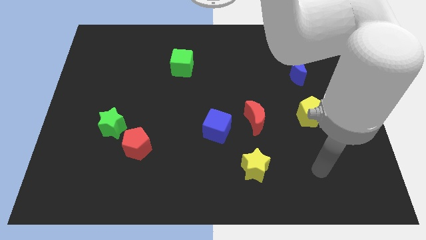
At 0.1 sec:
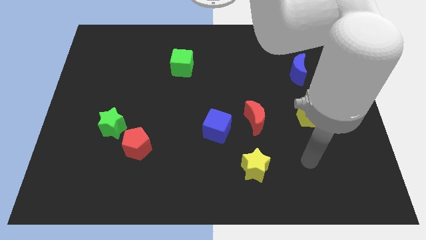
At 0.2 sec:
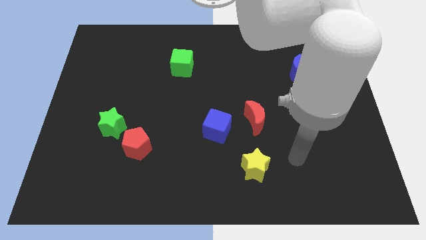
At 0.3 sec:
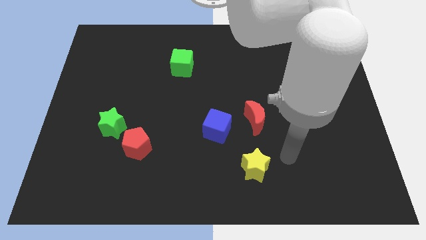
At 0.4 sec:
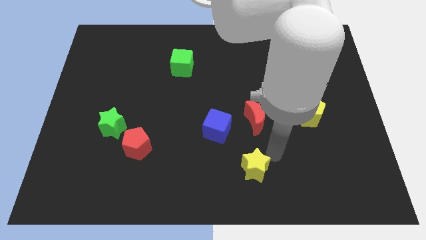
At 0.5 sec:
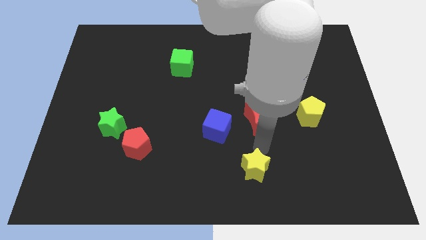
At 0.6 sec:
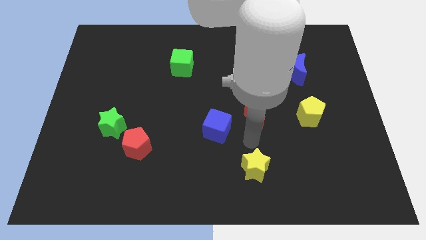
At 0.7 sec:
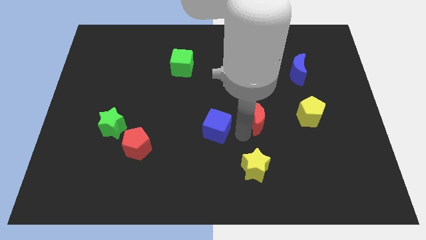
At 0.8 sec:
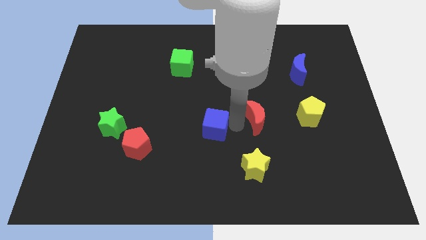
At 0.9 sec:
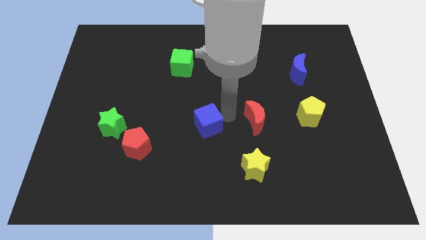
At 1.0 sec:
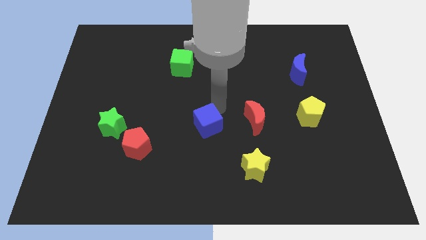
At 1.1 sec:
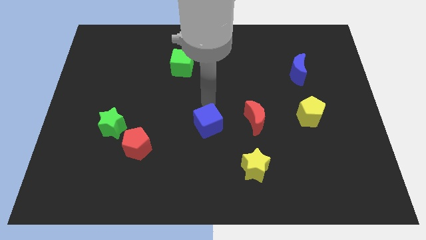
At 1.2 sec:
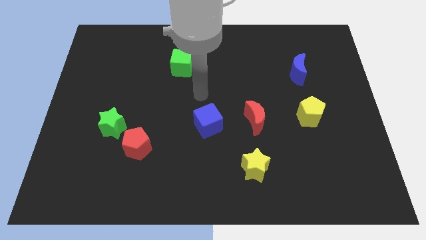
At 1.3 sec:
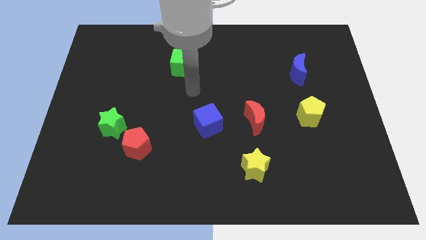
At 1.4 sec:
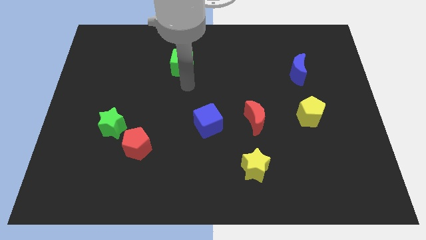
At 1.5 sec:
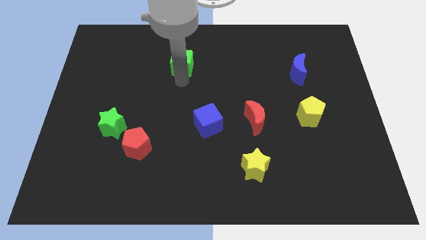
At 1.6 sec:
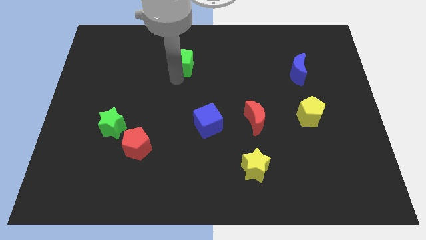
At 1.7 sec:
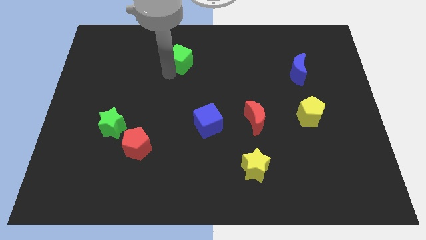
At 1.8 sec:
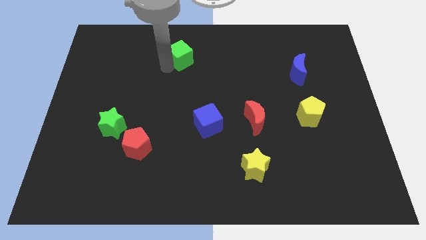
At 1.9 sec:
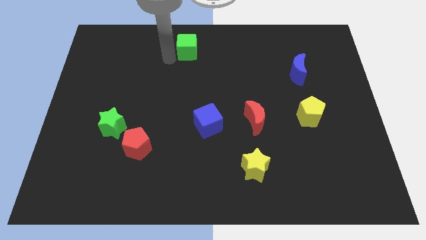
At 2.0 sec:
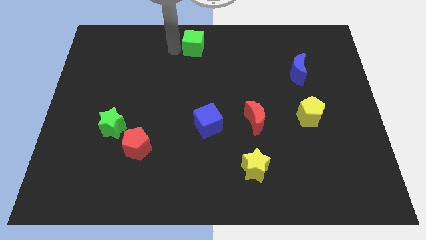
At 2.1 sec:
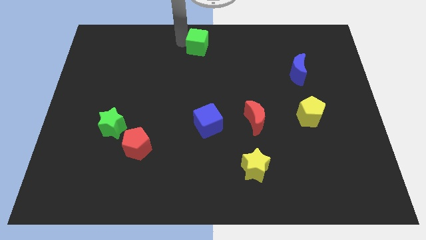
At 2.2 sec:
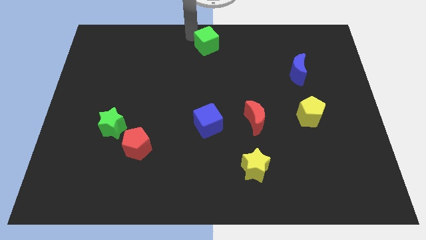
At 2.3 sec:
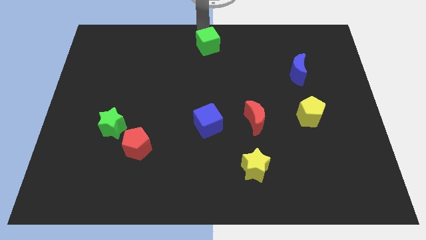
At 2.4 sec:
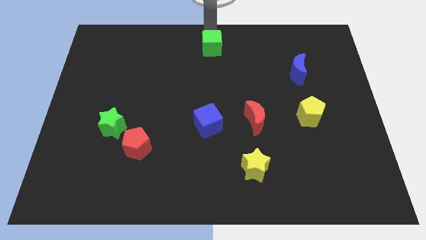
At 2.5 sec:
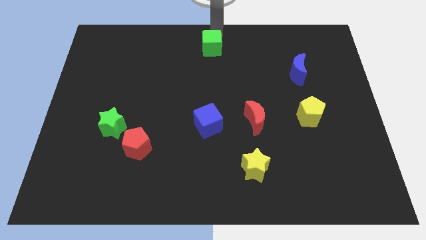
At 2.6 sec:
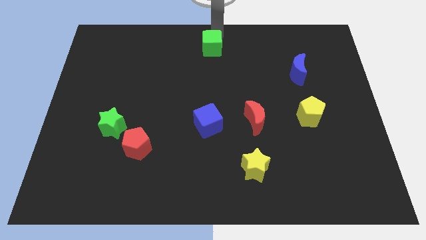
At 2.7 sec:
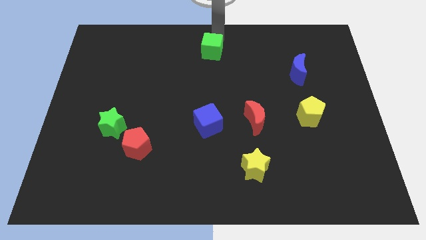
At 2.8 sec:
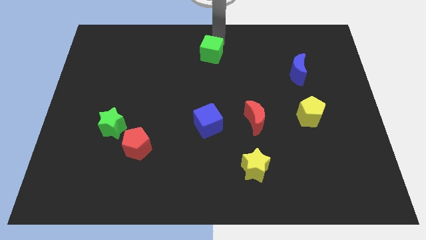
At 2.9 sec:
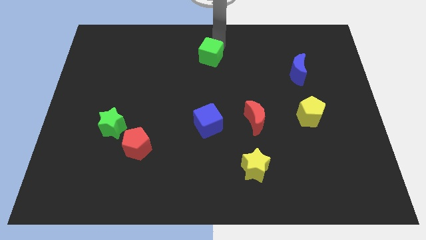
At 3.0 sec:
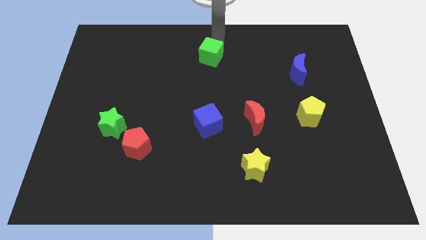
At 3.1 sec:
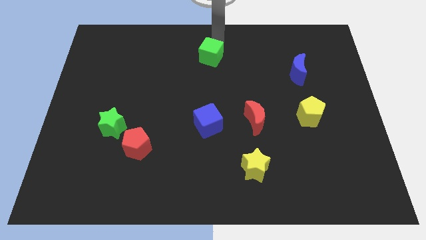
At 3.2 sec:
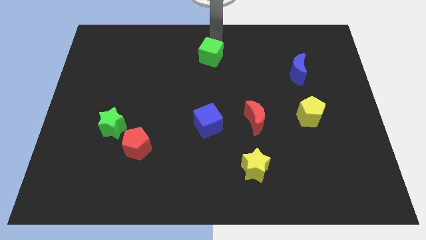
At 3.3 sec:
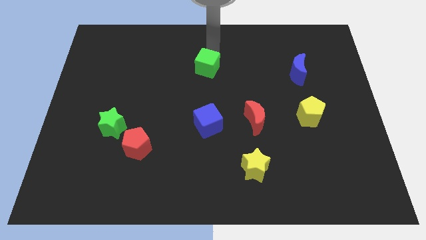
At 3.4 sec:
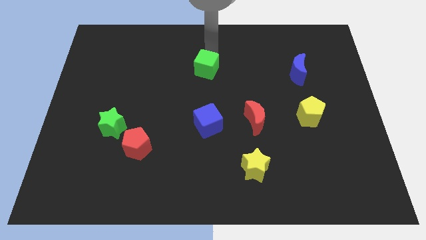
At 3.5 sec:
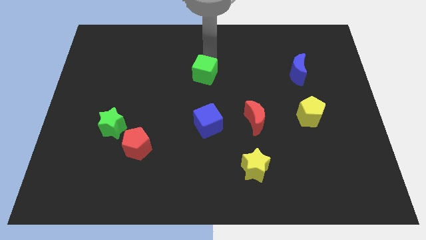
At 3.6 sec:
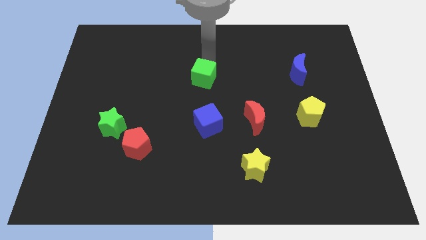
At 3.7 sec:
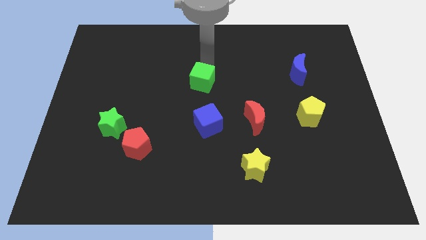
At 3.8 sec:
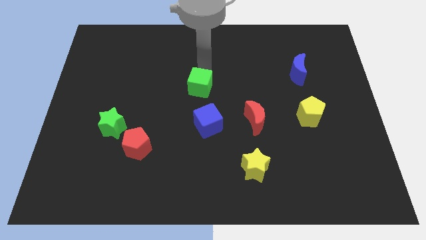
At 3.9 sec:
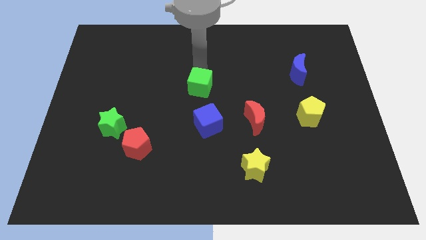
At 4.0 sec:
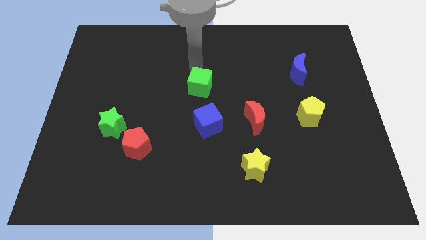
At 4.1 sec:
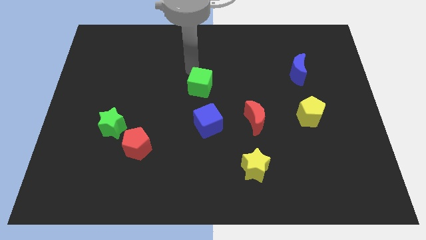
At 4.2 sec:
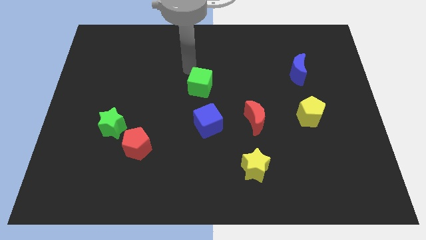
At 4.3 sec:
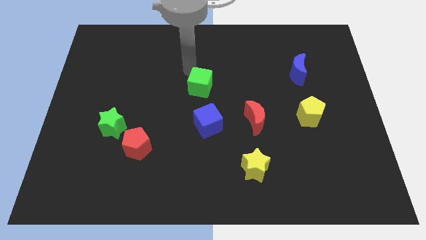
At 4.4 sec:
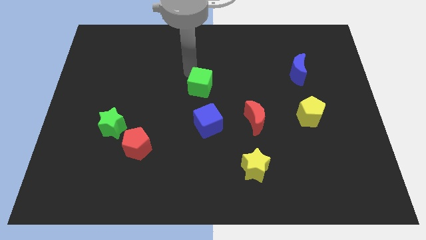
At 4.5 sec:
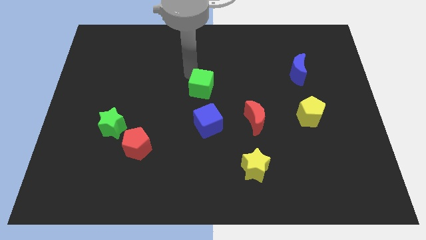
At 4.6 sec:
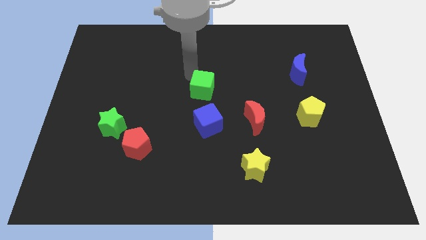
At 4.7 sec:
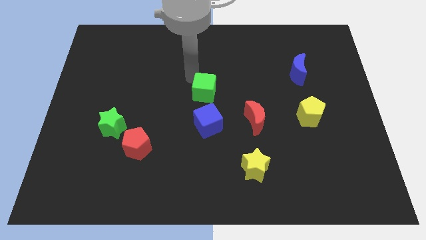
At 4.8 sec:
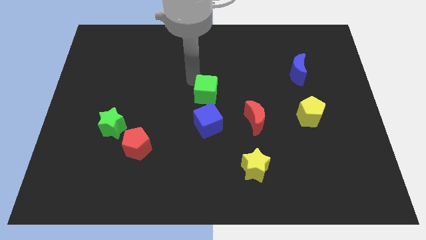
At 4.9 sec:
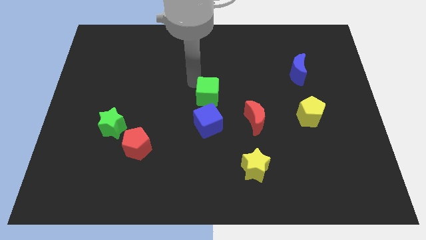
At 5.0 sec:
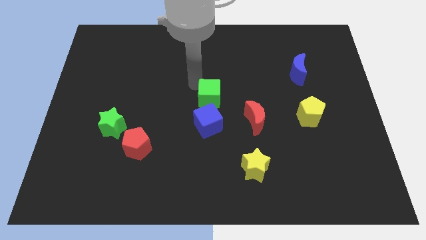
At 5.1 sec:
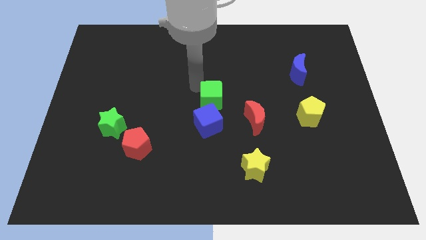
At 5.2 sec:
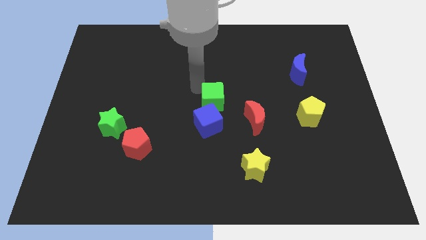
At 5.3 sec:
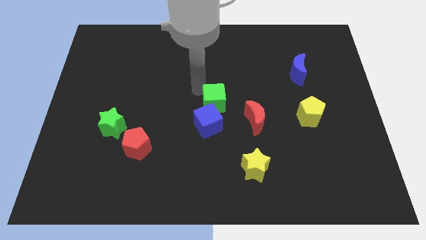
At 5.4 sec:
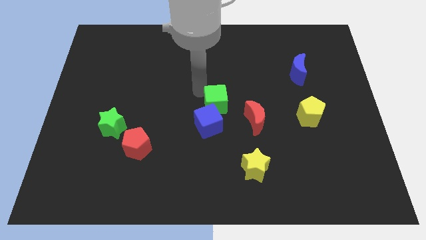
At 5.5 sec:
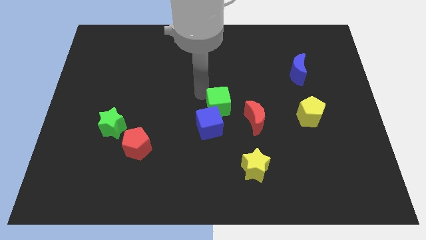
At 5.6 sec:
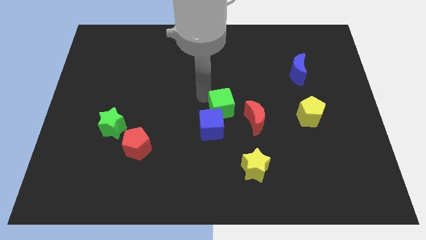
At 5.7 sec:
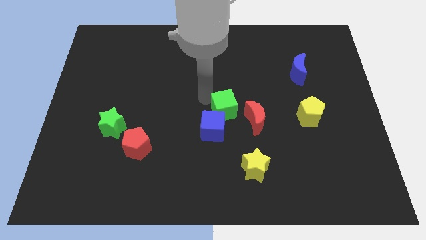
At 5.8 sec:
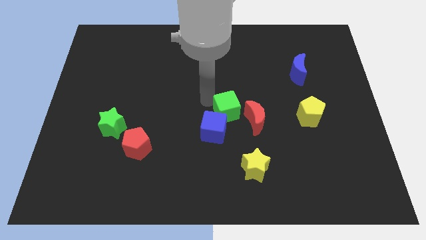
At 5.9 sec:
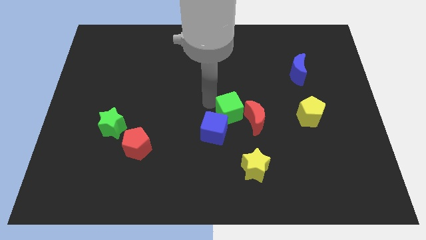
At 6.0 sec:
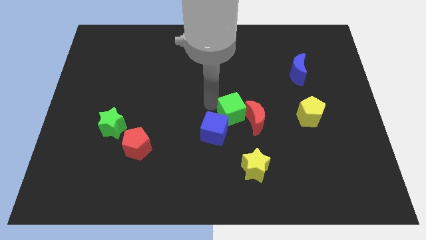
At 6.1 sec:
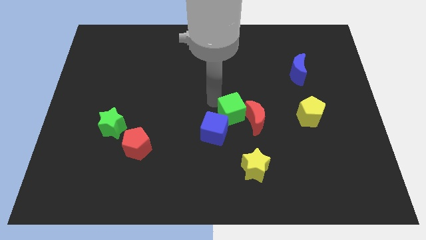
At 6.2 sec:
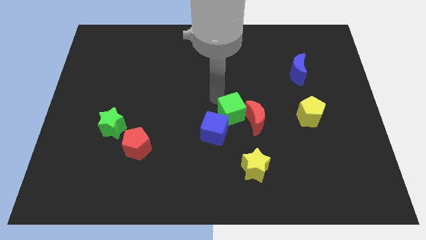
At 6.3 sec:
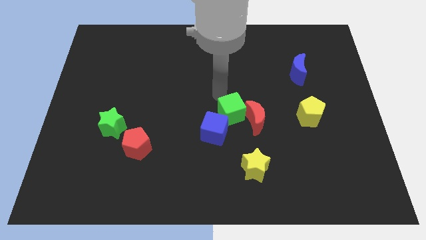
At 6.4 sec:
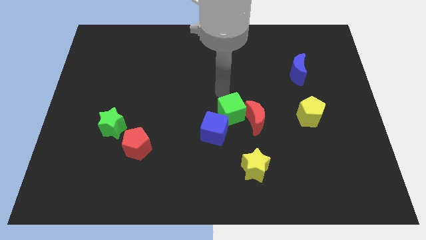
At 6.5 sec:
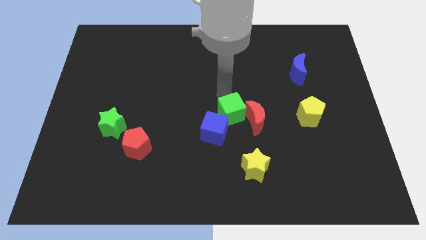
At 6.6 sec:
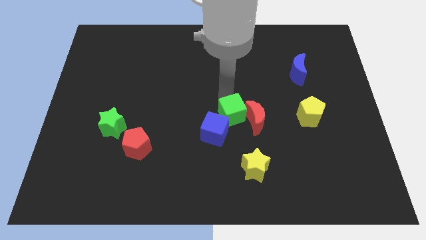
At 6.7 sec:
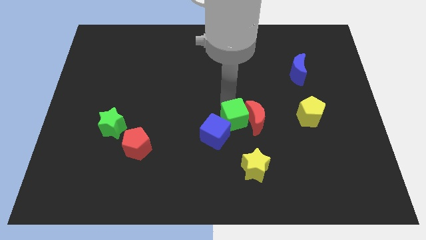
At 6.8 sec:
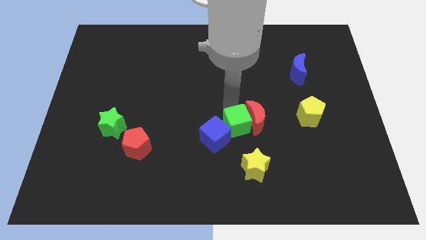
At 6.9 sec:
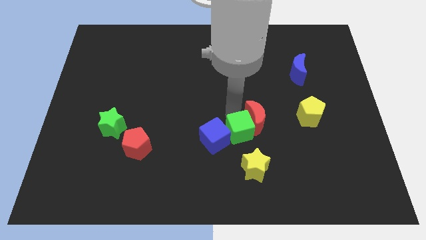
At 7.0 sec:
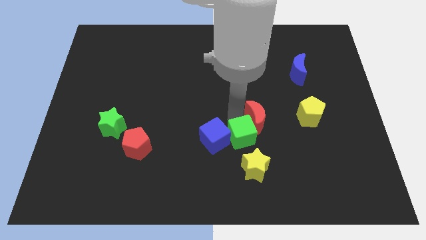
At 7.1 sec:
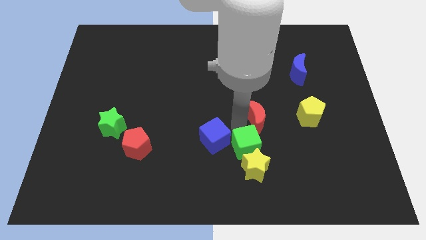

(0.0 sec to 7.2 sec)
push the green cube next to the yellow star

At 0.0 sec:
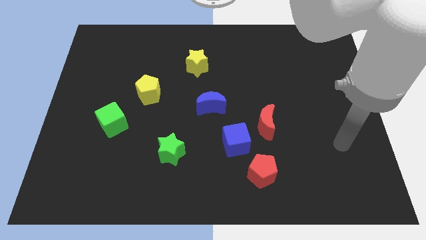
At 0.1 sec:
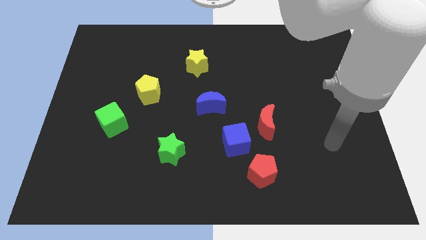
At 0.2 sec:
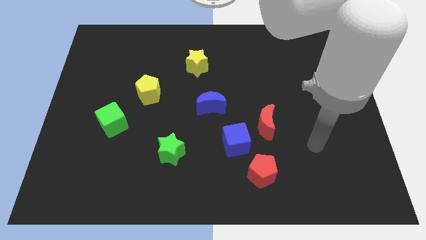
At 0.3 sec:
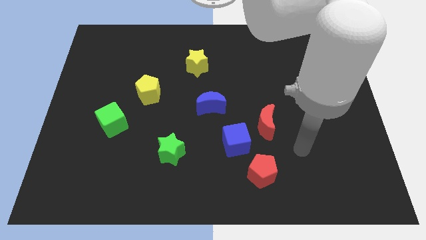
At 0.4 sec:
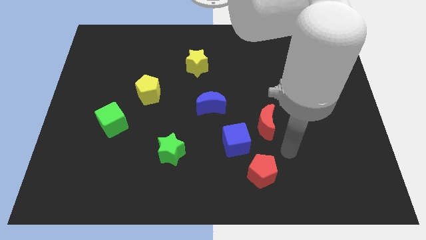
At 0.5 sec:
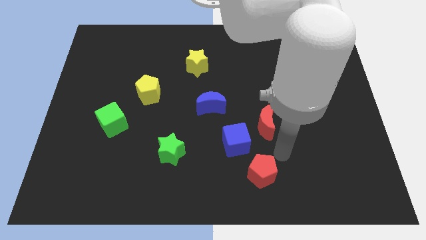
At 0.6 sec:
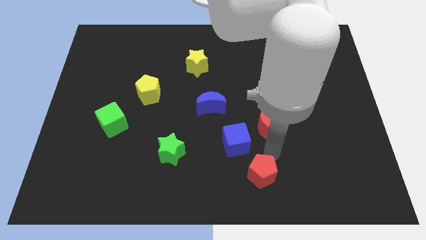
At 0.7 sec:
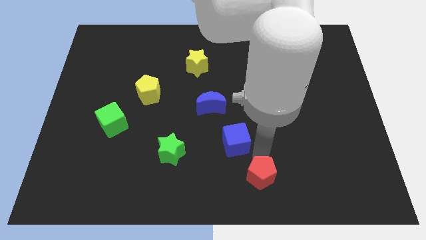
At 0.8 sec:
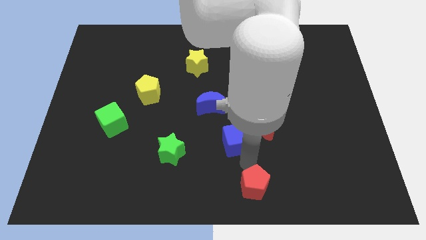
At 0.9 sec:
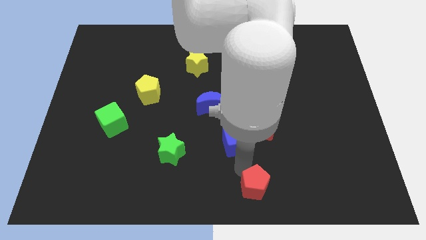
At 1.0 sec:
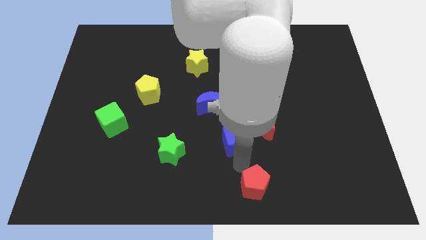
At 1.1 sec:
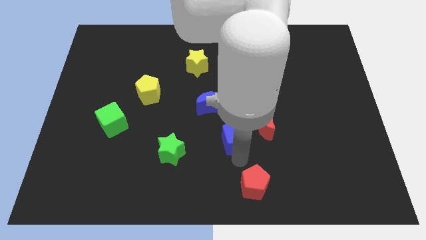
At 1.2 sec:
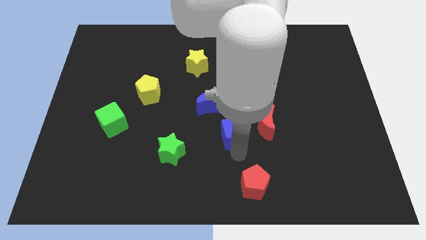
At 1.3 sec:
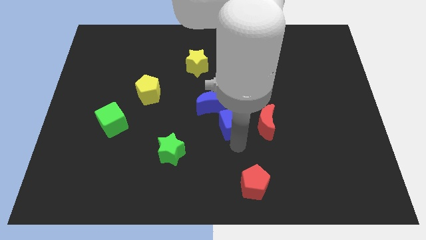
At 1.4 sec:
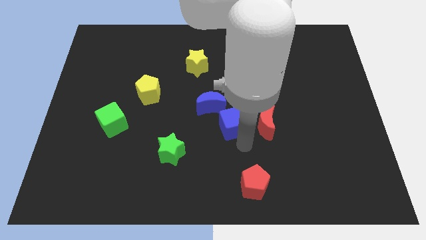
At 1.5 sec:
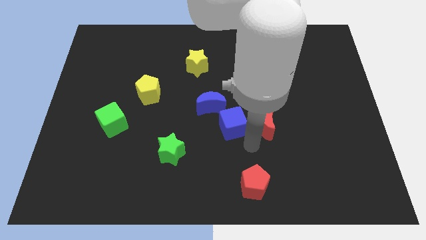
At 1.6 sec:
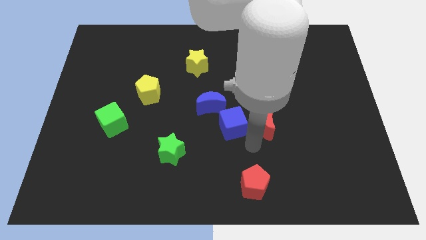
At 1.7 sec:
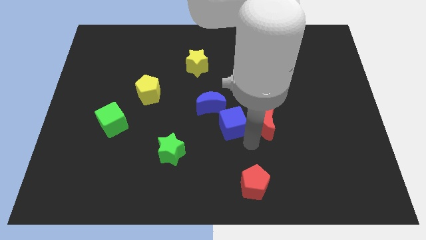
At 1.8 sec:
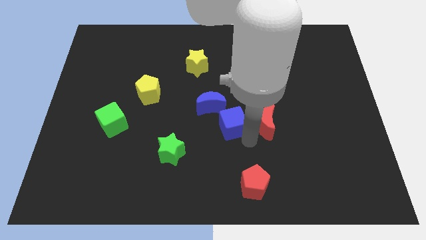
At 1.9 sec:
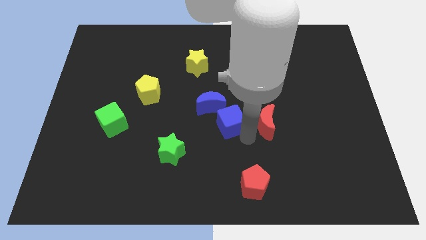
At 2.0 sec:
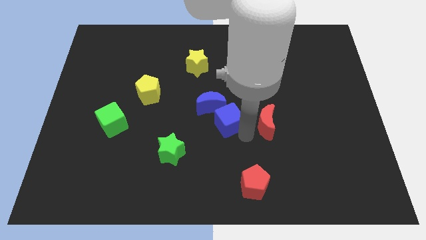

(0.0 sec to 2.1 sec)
push the blue cube to the blue moon
